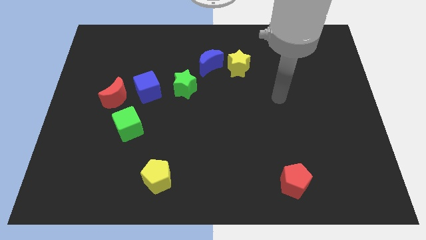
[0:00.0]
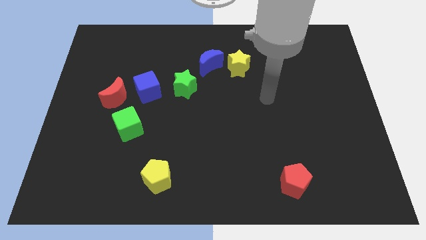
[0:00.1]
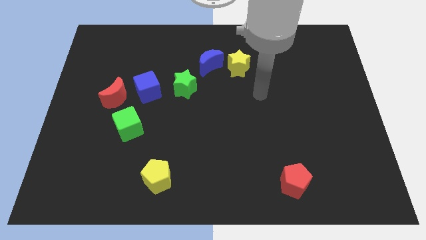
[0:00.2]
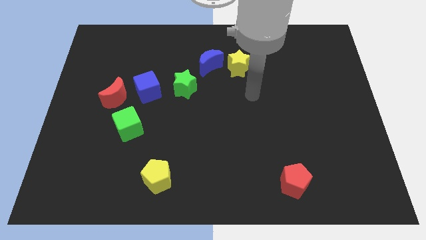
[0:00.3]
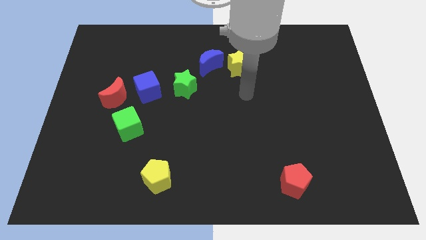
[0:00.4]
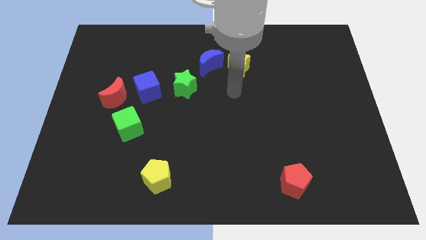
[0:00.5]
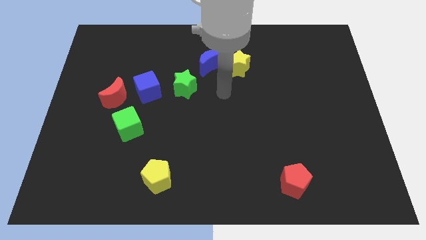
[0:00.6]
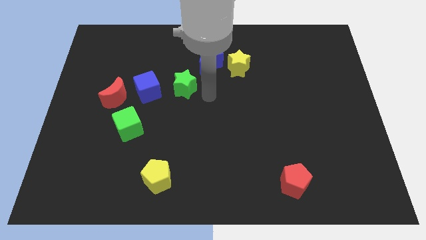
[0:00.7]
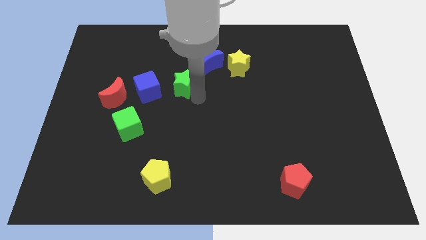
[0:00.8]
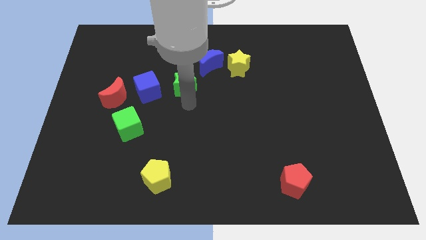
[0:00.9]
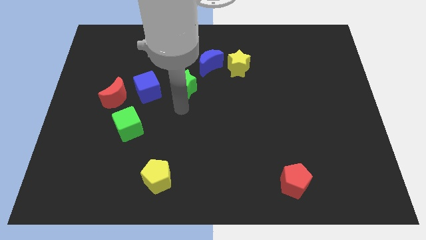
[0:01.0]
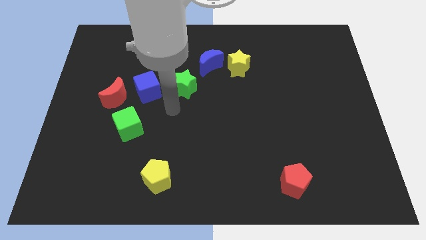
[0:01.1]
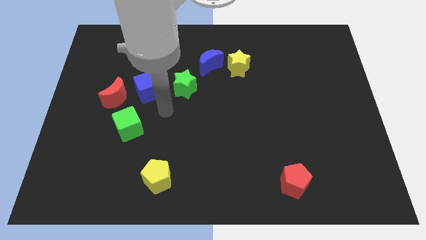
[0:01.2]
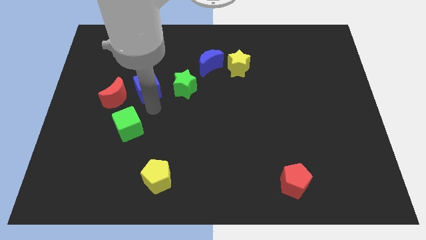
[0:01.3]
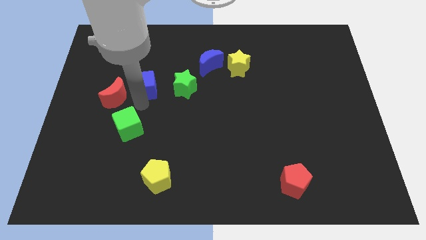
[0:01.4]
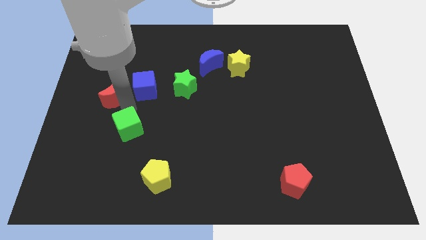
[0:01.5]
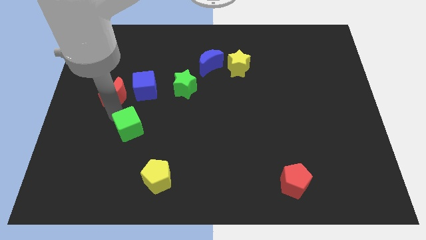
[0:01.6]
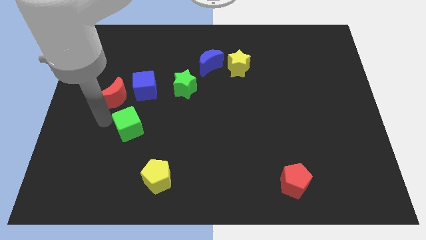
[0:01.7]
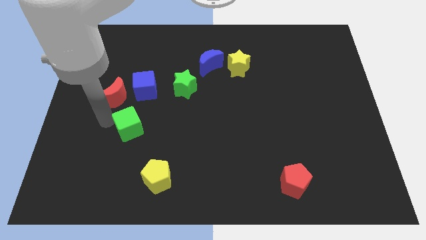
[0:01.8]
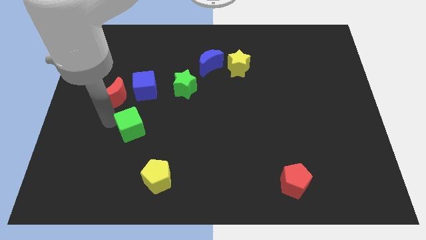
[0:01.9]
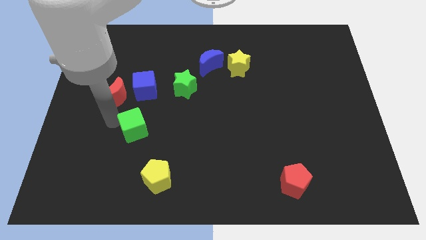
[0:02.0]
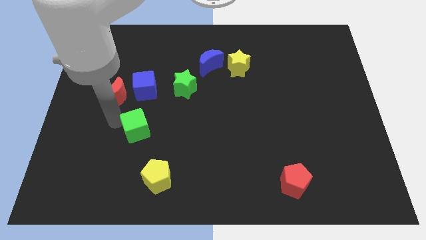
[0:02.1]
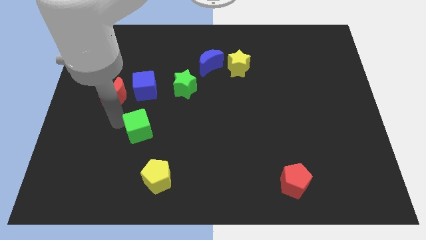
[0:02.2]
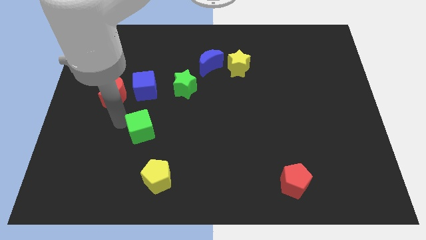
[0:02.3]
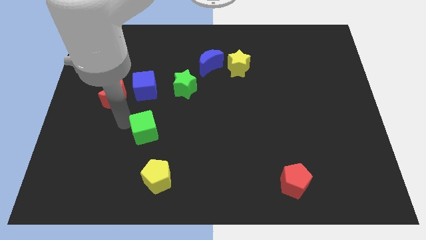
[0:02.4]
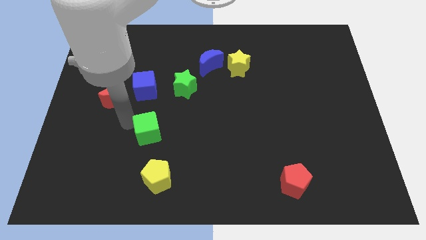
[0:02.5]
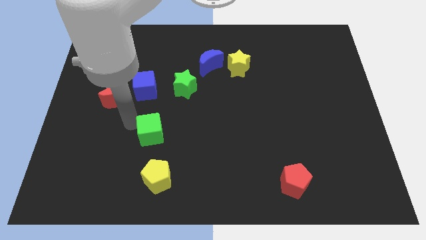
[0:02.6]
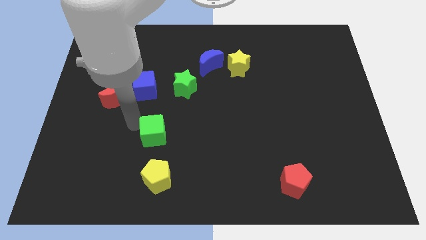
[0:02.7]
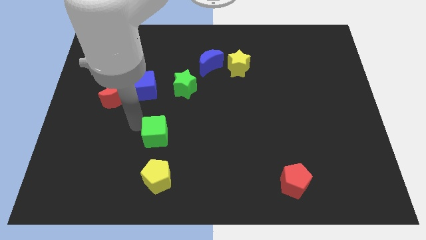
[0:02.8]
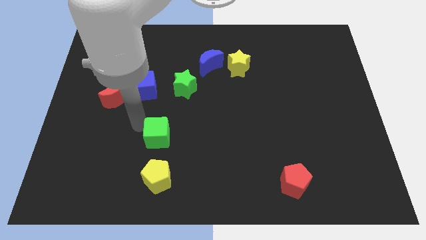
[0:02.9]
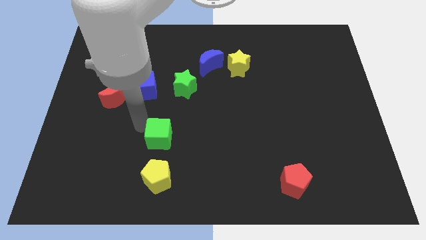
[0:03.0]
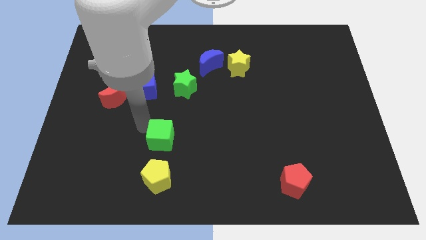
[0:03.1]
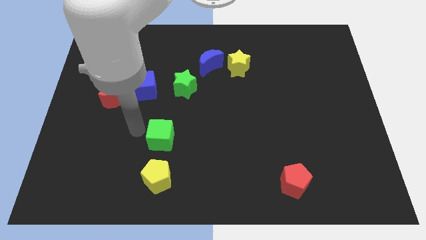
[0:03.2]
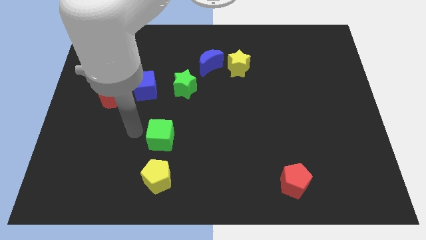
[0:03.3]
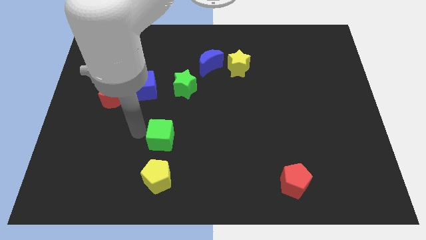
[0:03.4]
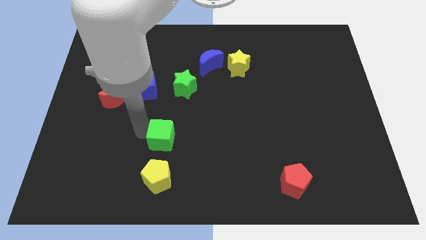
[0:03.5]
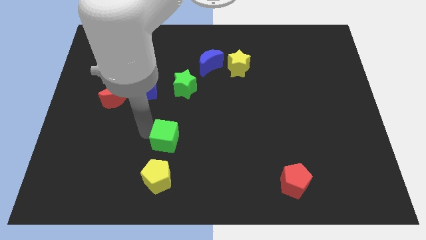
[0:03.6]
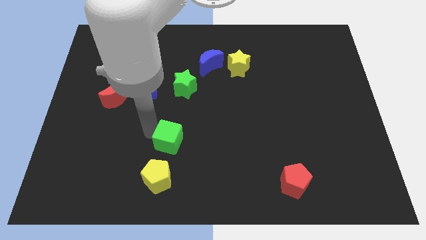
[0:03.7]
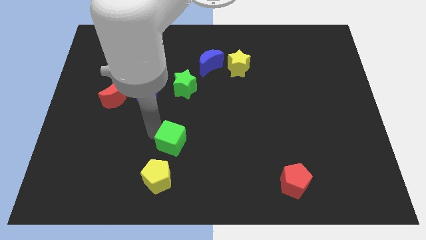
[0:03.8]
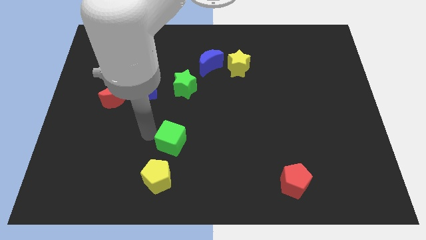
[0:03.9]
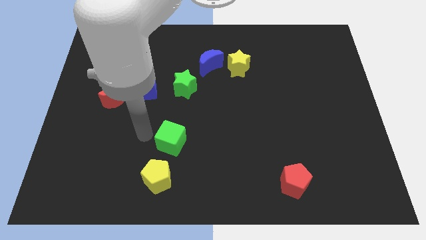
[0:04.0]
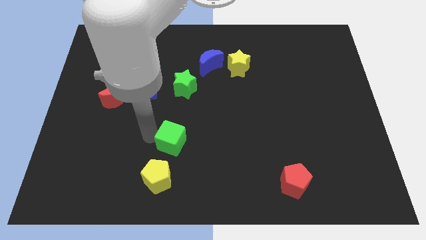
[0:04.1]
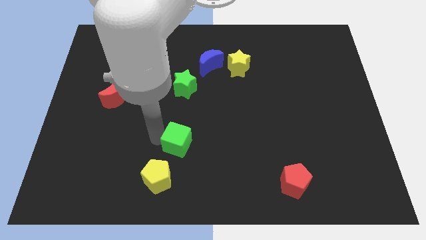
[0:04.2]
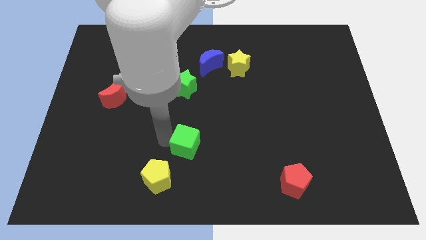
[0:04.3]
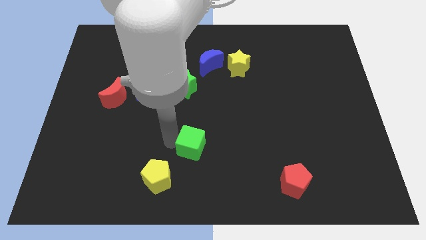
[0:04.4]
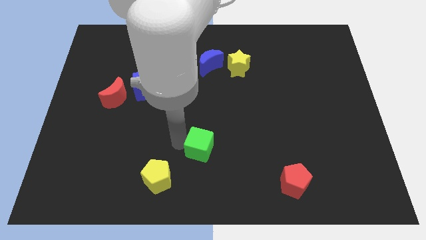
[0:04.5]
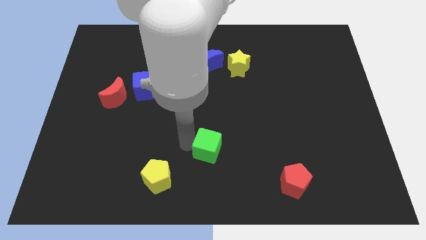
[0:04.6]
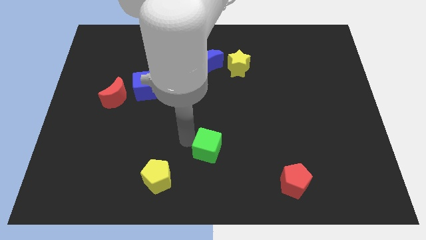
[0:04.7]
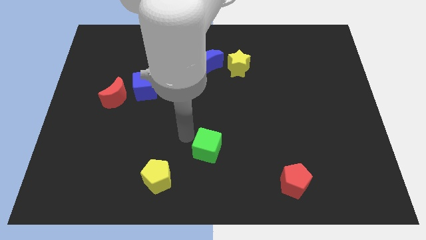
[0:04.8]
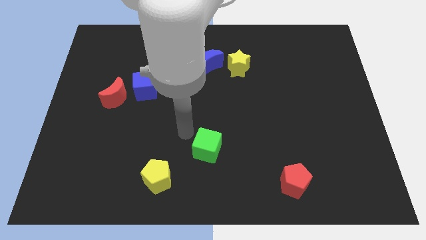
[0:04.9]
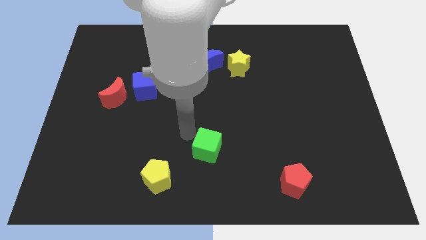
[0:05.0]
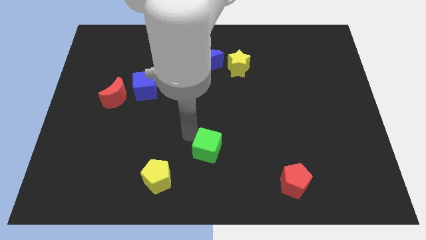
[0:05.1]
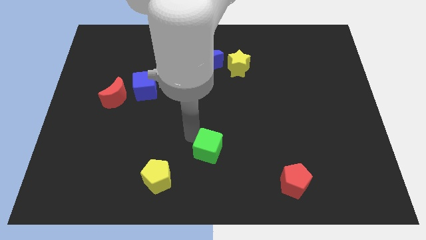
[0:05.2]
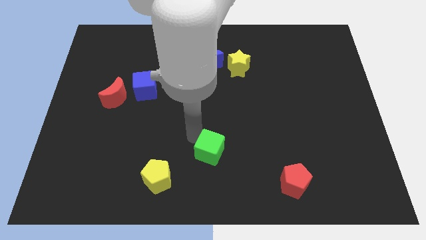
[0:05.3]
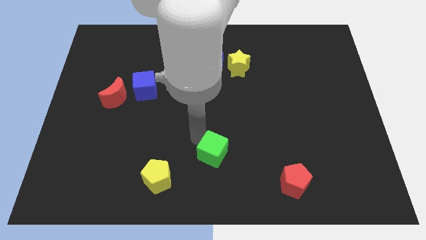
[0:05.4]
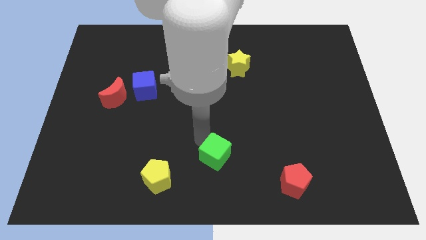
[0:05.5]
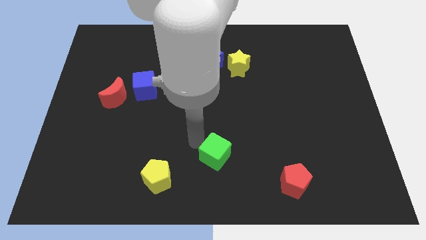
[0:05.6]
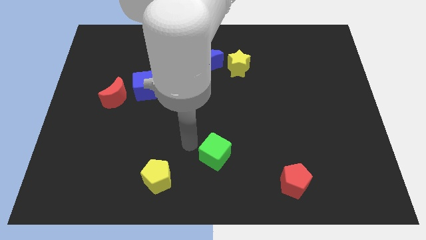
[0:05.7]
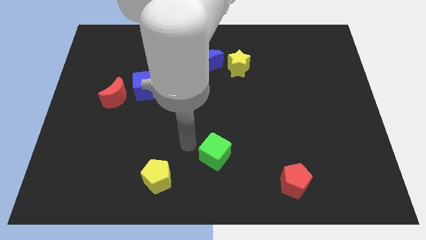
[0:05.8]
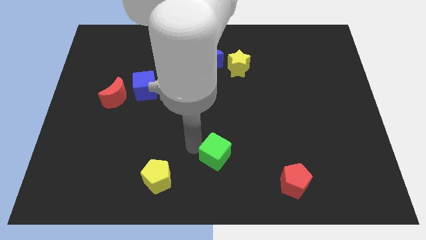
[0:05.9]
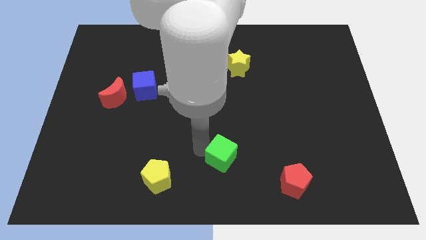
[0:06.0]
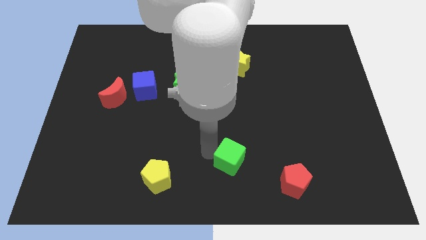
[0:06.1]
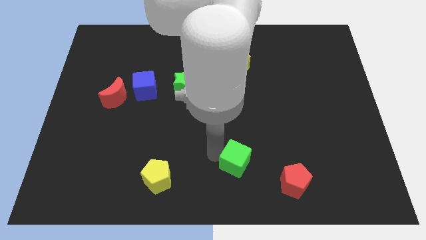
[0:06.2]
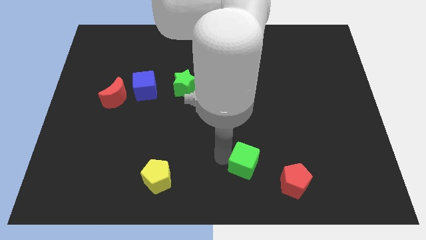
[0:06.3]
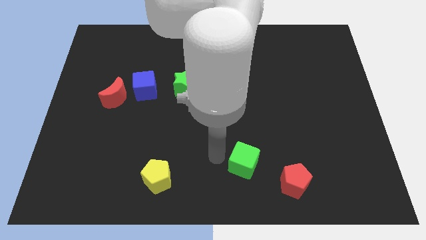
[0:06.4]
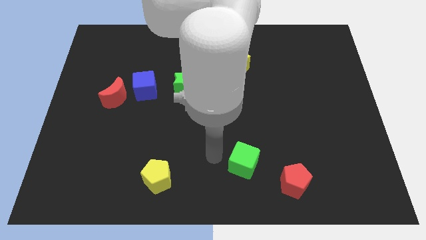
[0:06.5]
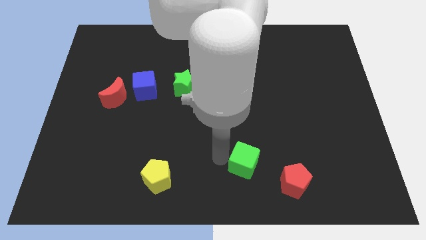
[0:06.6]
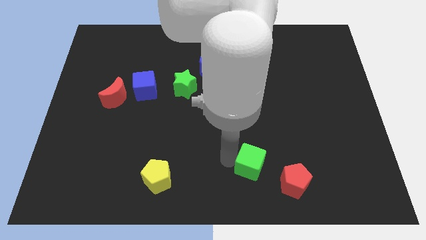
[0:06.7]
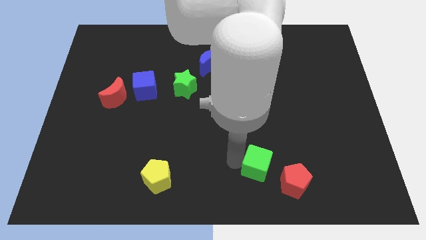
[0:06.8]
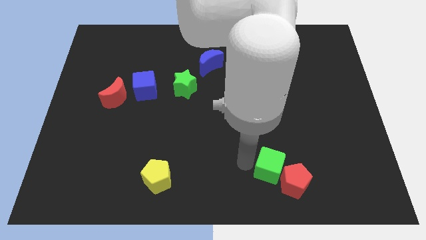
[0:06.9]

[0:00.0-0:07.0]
push the green cube next to the red pentagon
